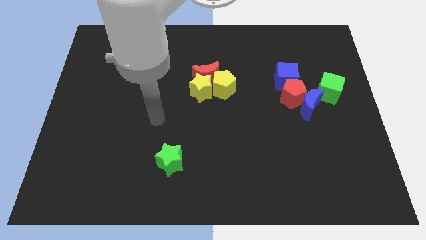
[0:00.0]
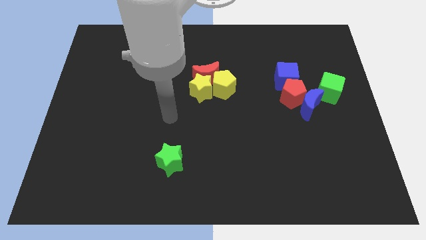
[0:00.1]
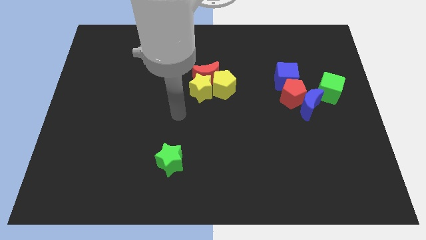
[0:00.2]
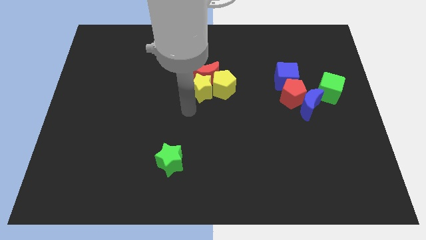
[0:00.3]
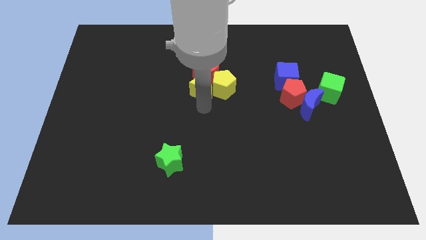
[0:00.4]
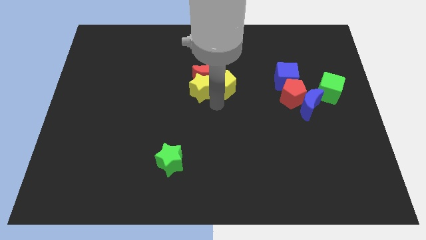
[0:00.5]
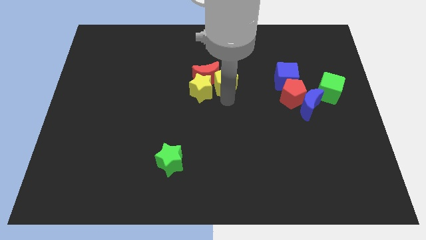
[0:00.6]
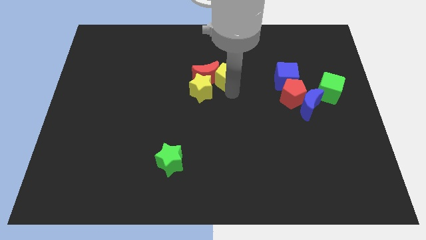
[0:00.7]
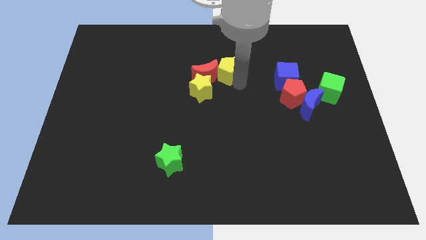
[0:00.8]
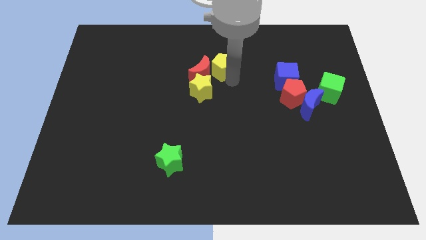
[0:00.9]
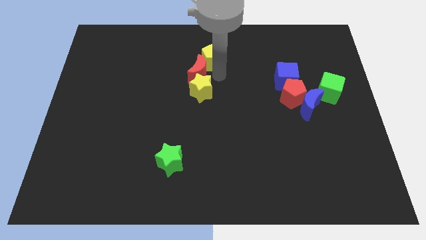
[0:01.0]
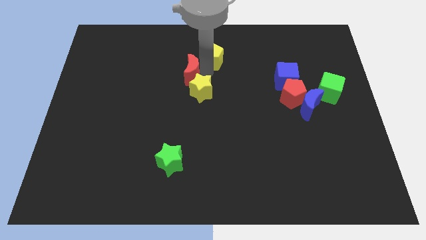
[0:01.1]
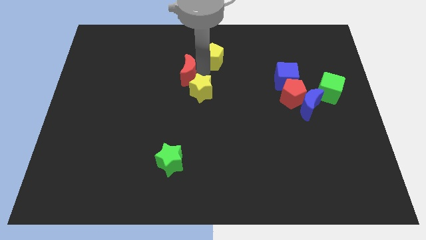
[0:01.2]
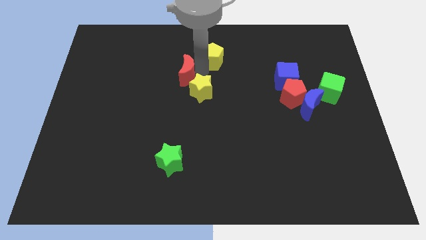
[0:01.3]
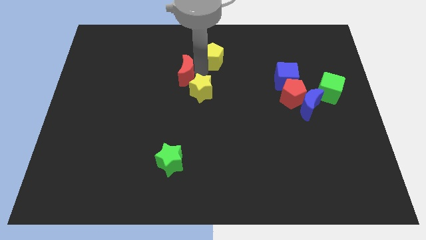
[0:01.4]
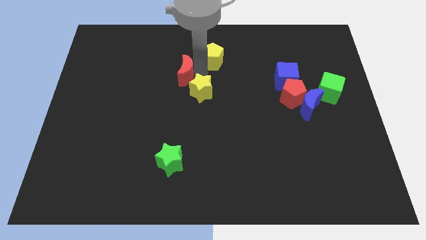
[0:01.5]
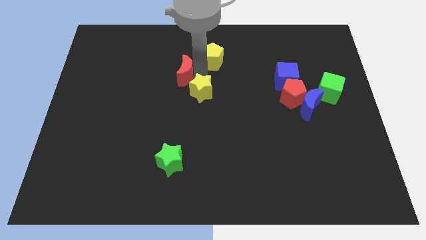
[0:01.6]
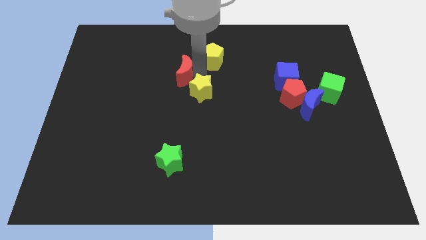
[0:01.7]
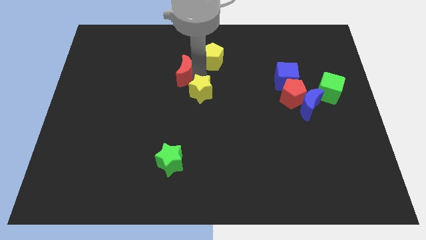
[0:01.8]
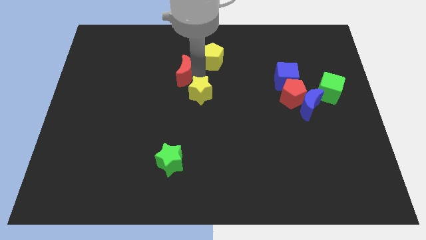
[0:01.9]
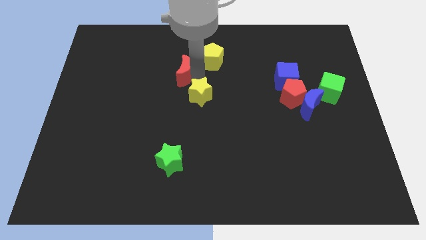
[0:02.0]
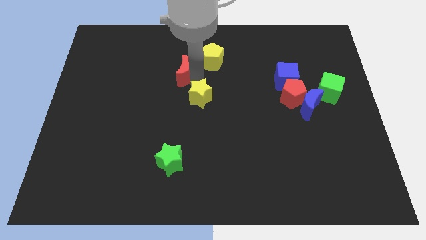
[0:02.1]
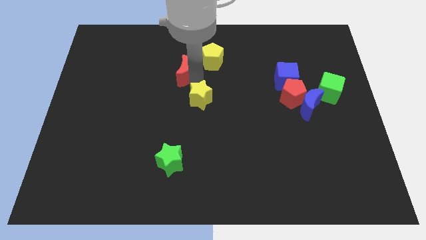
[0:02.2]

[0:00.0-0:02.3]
pull the yellow star apart from the red moon and yellow pentagon

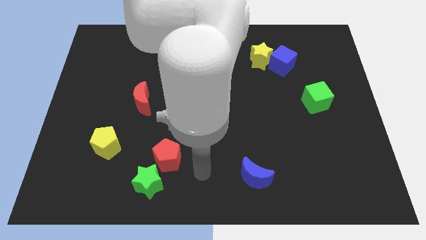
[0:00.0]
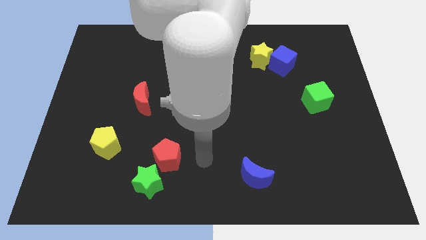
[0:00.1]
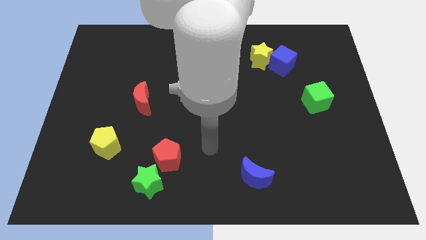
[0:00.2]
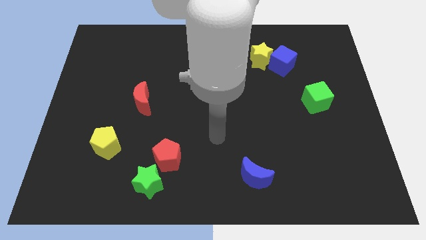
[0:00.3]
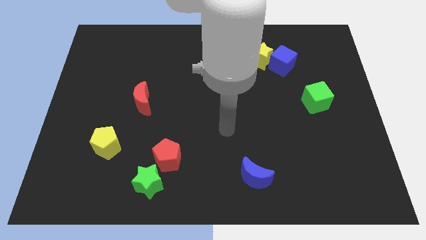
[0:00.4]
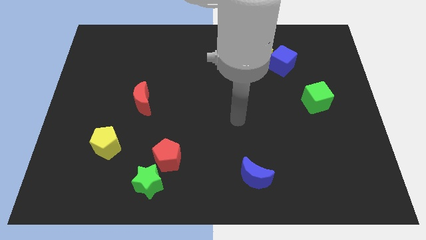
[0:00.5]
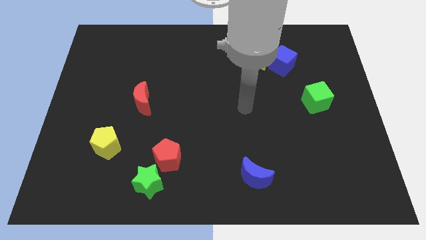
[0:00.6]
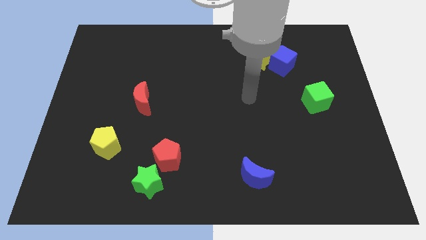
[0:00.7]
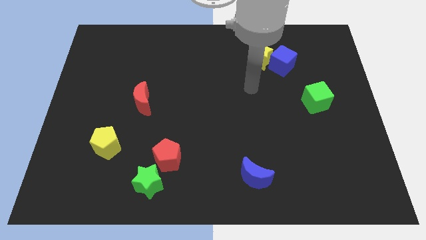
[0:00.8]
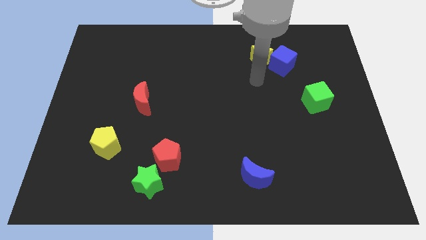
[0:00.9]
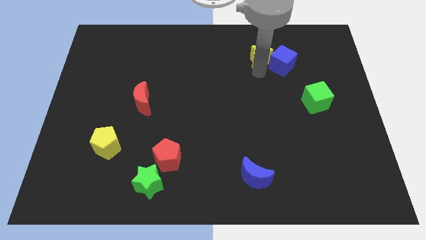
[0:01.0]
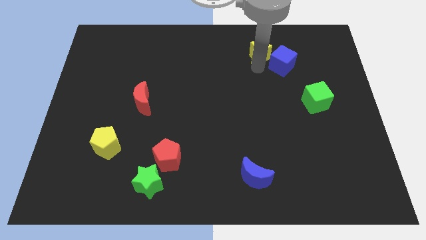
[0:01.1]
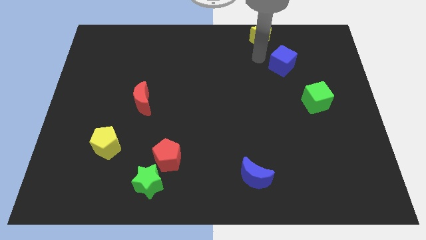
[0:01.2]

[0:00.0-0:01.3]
separate the blue cube from the yellow star

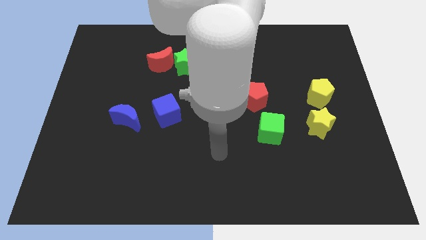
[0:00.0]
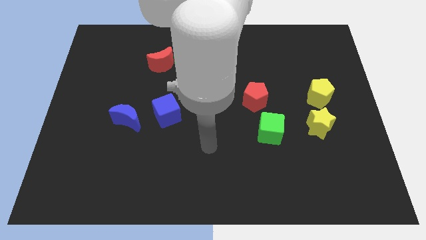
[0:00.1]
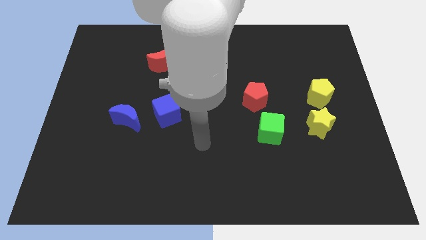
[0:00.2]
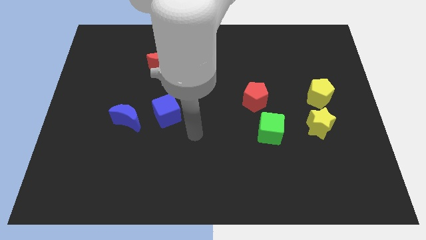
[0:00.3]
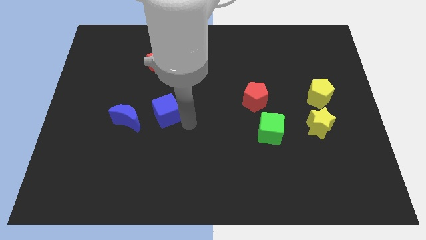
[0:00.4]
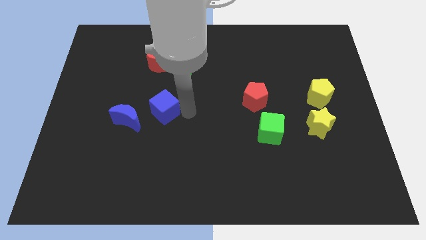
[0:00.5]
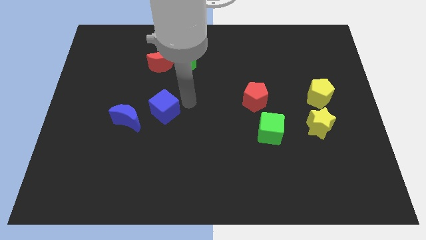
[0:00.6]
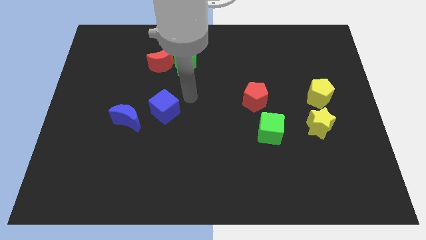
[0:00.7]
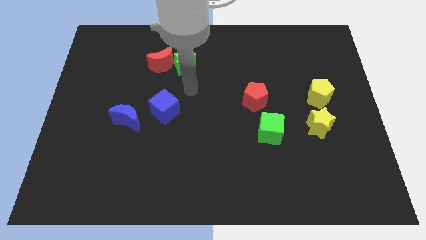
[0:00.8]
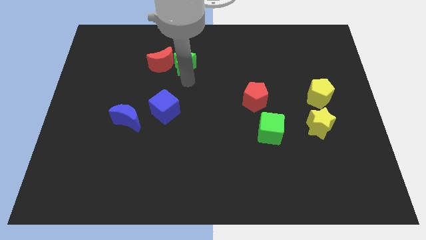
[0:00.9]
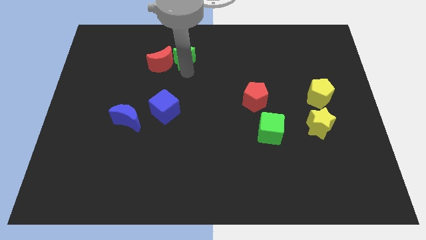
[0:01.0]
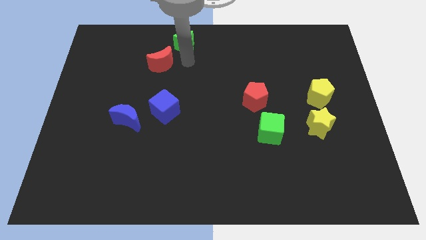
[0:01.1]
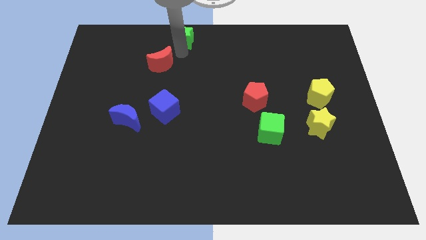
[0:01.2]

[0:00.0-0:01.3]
pull the red moon apart from the green star

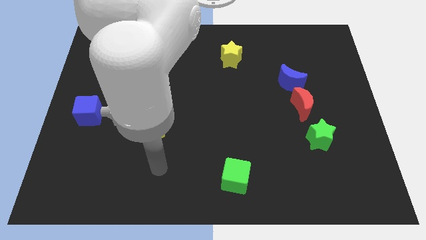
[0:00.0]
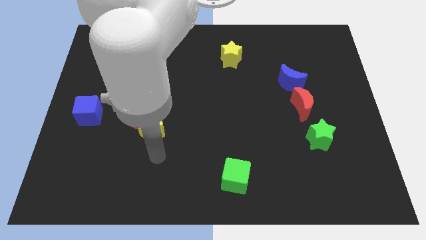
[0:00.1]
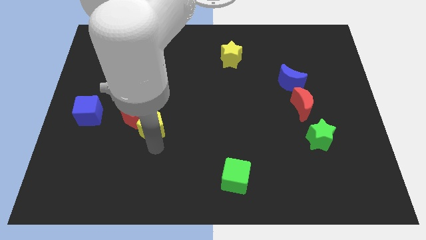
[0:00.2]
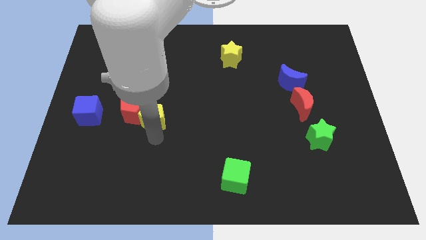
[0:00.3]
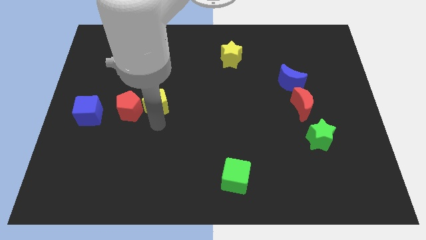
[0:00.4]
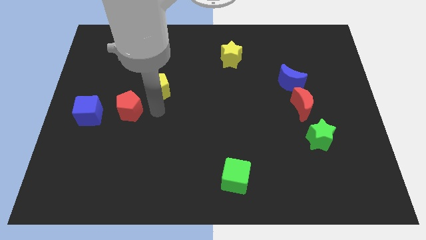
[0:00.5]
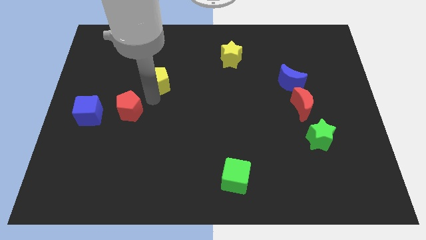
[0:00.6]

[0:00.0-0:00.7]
separate the red pentagon from the yellow pentagon

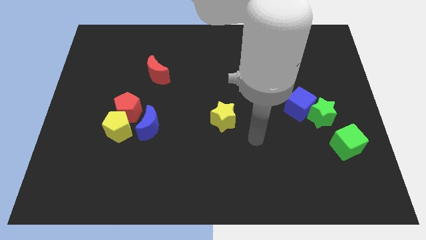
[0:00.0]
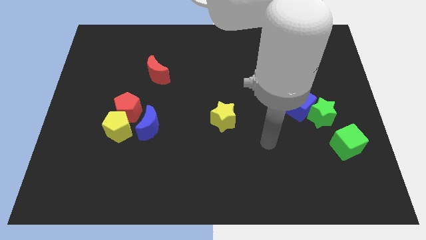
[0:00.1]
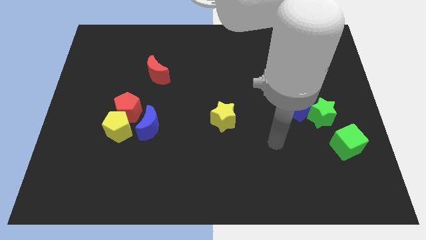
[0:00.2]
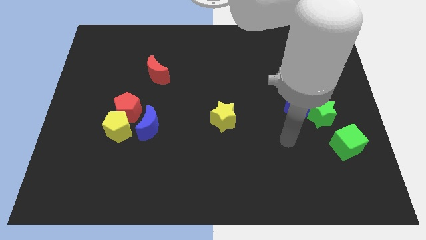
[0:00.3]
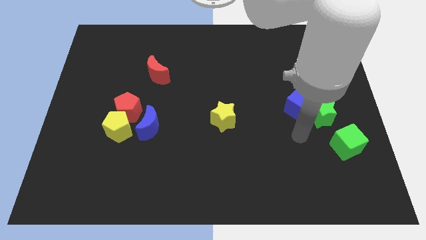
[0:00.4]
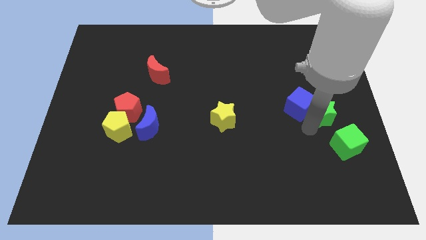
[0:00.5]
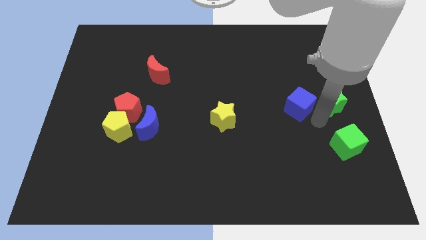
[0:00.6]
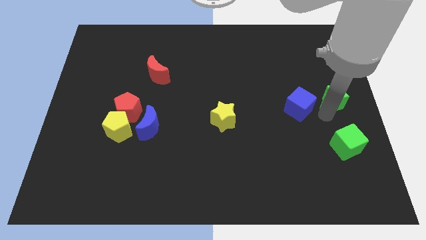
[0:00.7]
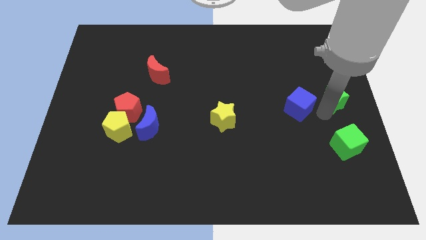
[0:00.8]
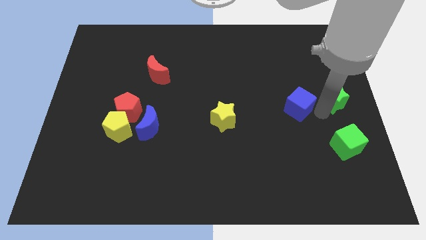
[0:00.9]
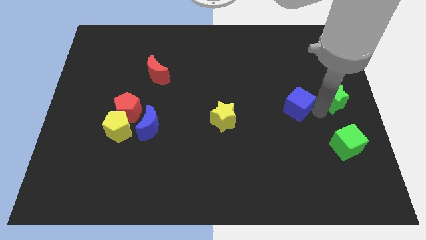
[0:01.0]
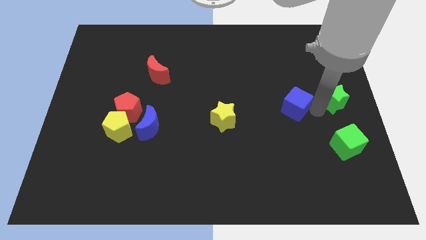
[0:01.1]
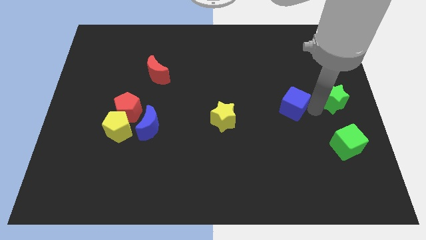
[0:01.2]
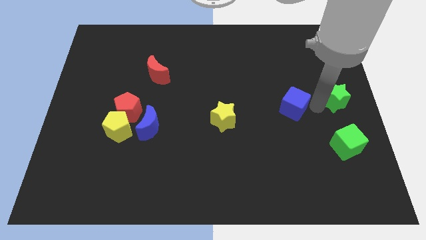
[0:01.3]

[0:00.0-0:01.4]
move the blue cube away from the green star

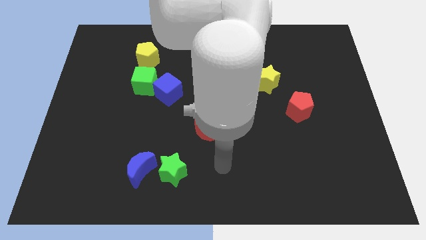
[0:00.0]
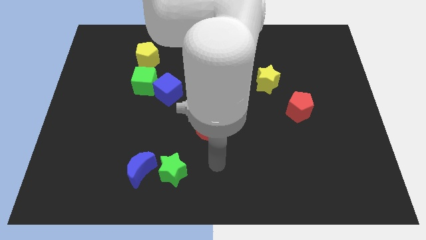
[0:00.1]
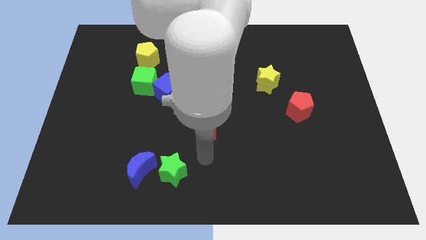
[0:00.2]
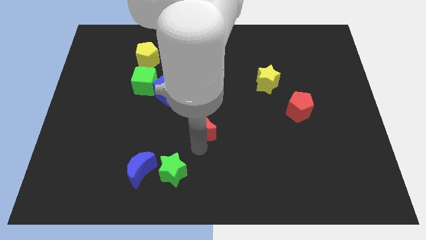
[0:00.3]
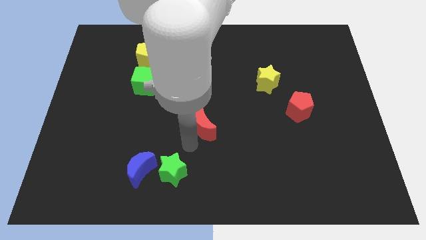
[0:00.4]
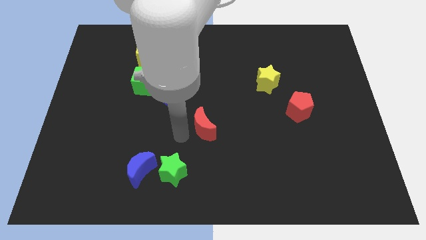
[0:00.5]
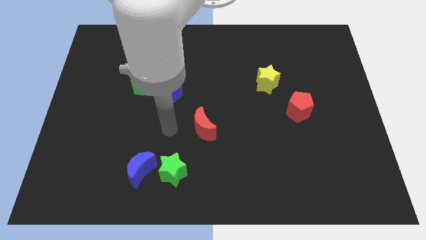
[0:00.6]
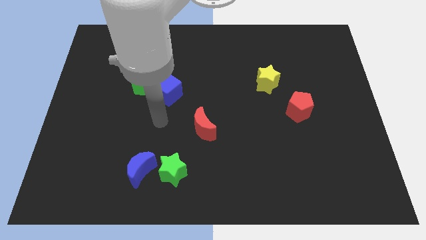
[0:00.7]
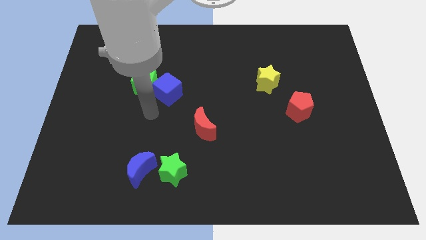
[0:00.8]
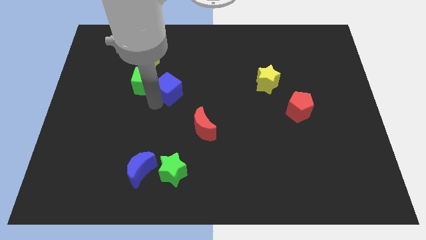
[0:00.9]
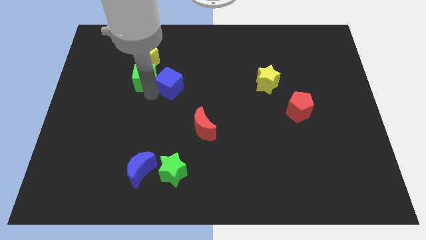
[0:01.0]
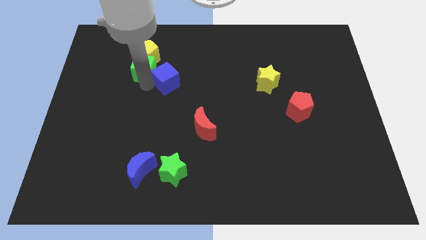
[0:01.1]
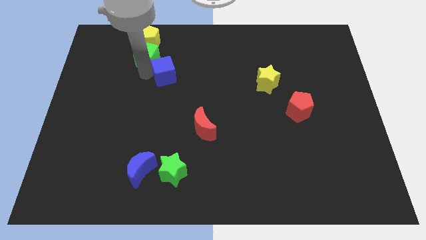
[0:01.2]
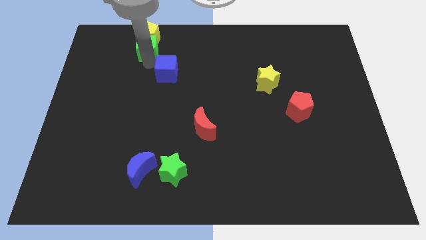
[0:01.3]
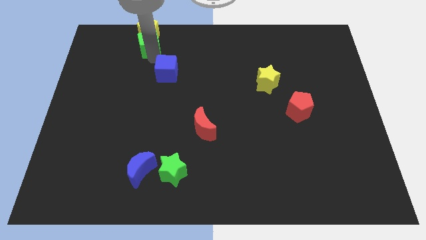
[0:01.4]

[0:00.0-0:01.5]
separate the blue cube from the green cube

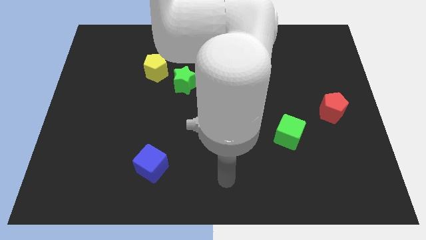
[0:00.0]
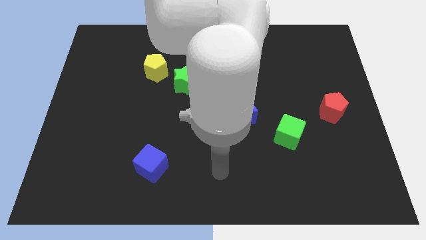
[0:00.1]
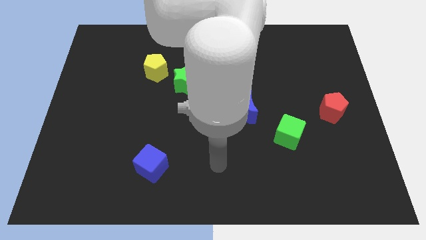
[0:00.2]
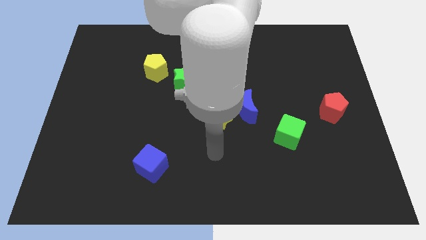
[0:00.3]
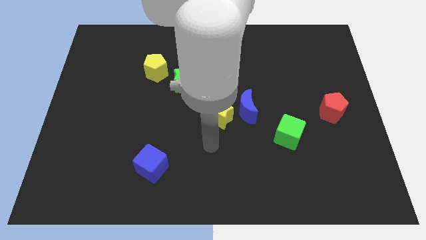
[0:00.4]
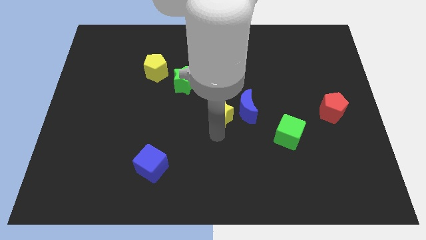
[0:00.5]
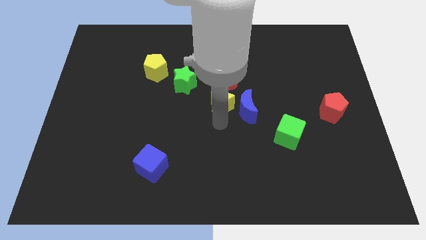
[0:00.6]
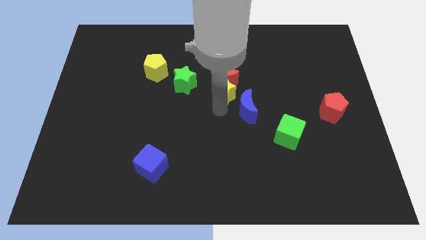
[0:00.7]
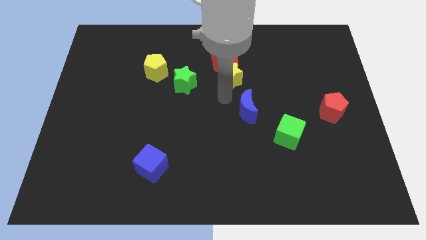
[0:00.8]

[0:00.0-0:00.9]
move the blue moon away from the yellow star
